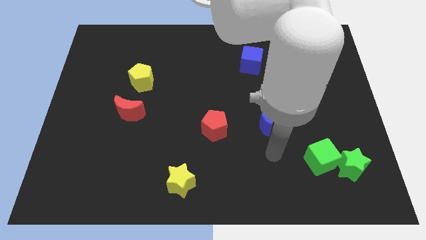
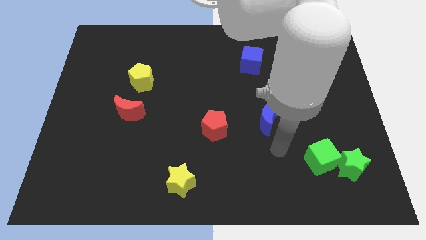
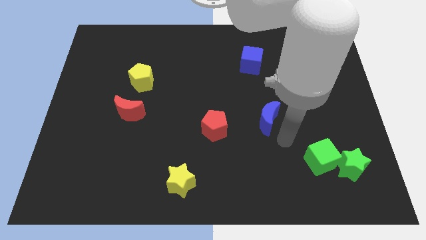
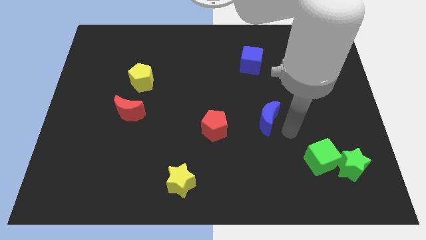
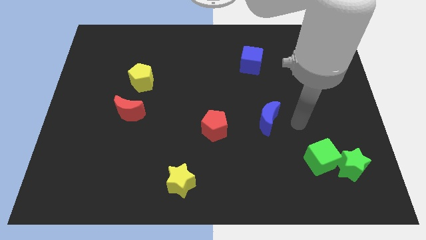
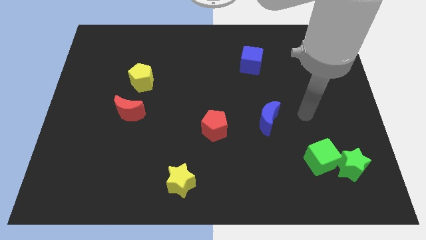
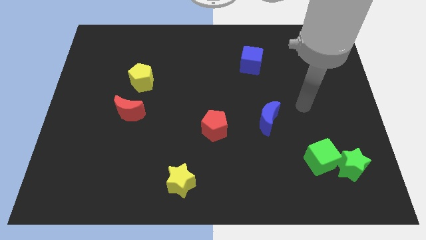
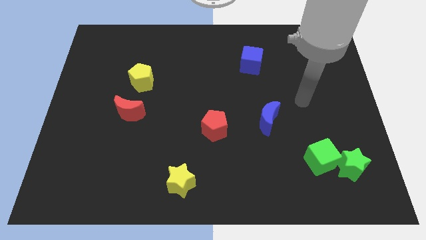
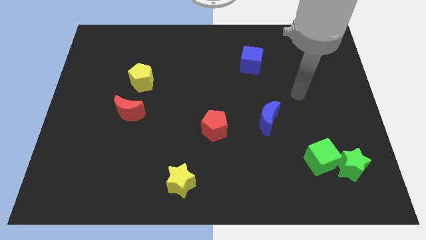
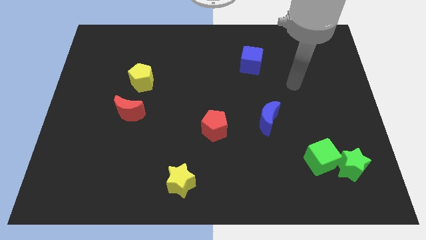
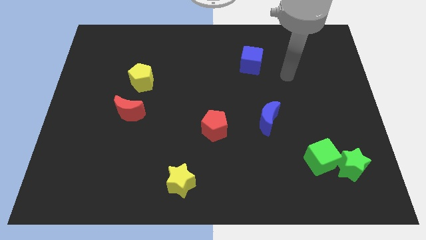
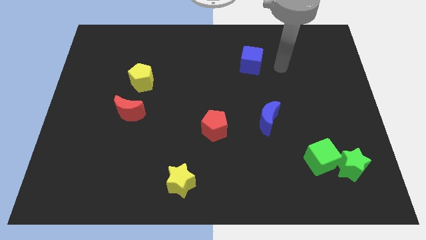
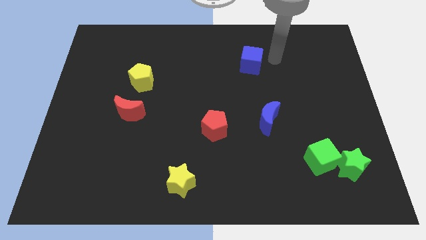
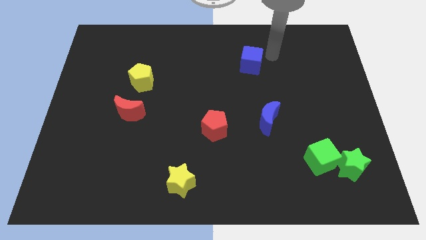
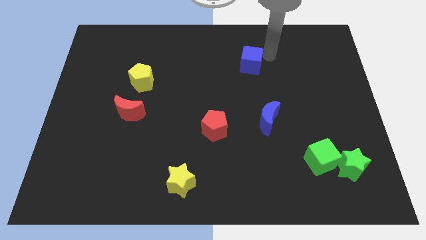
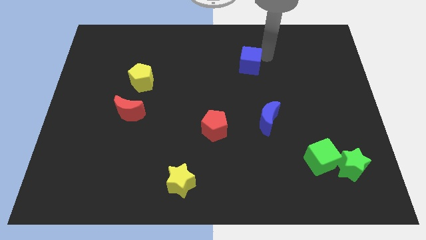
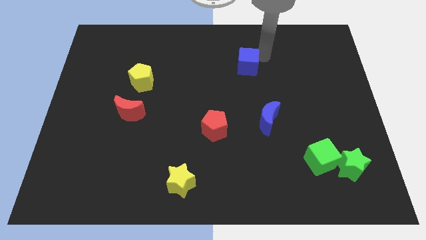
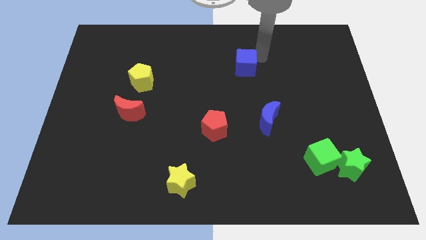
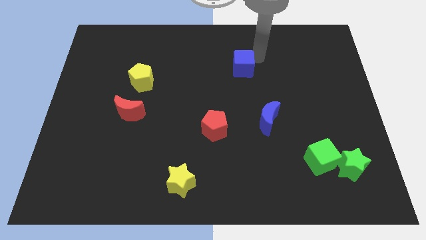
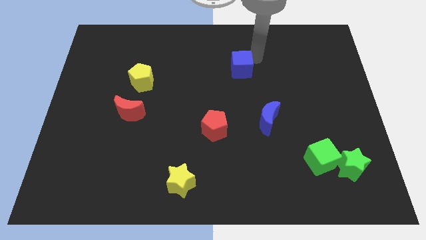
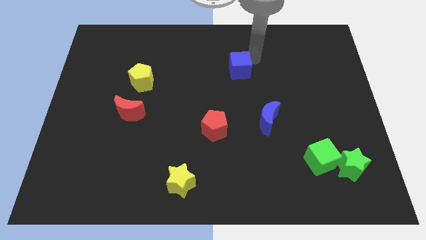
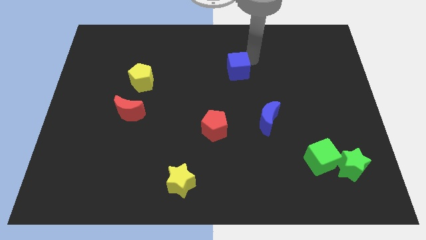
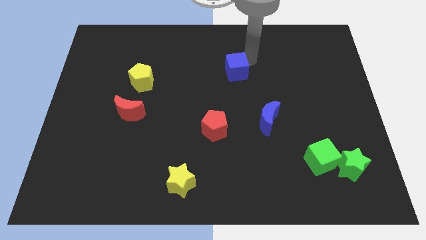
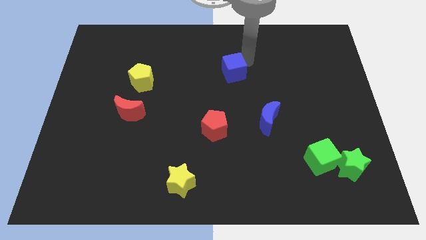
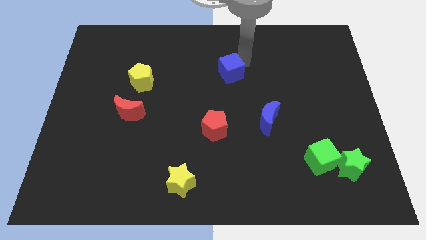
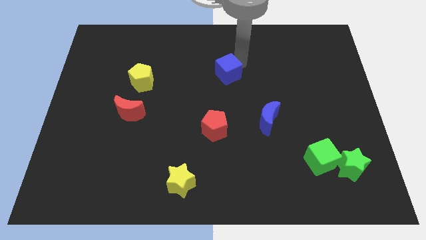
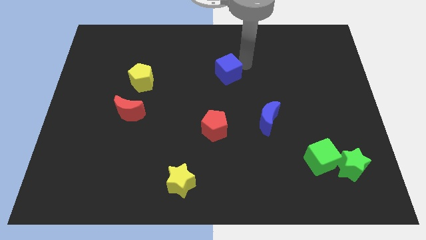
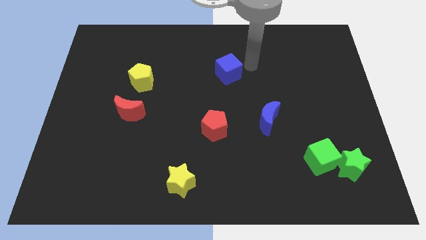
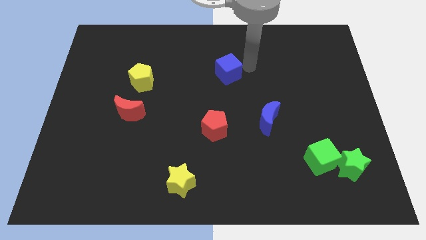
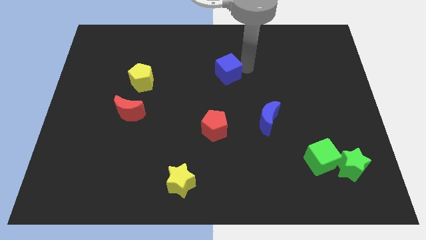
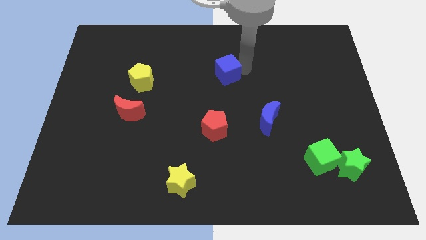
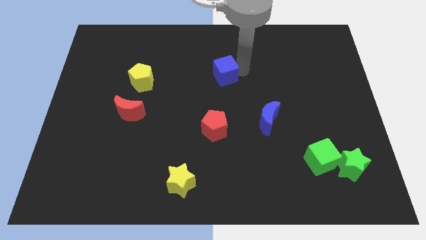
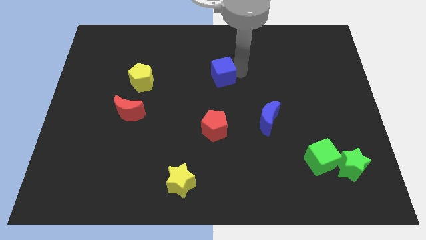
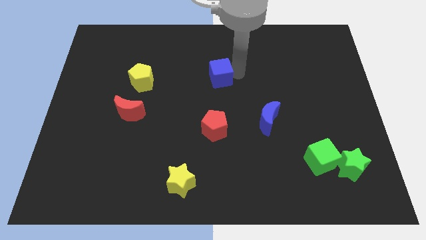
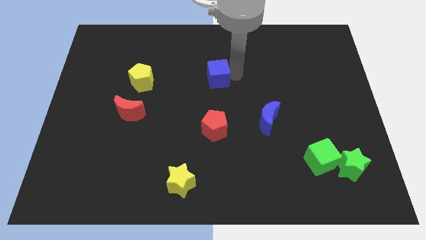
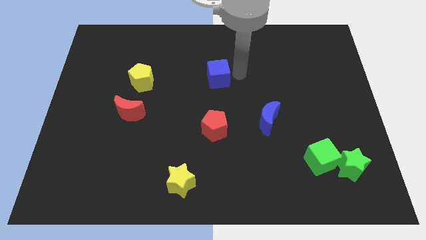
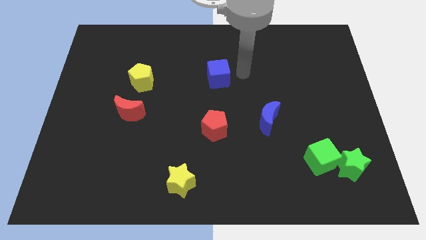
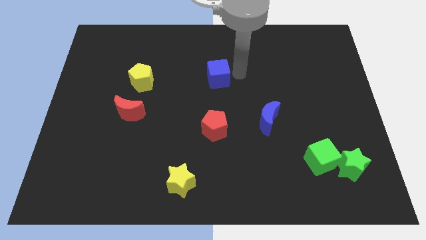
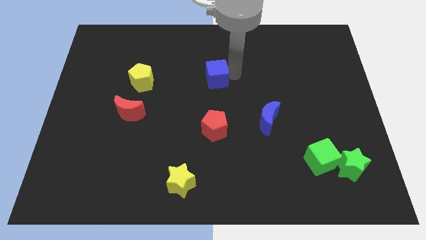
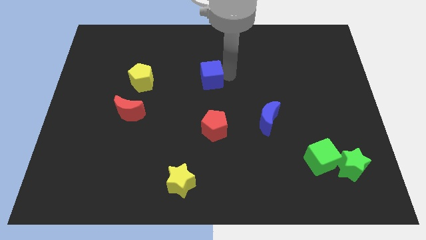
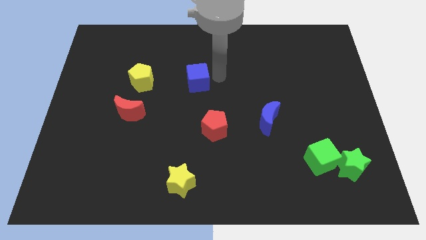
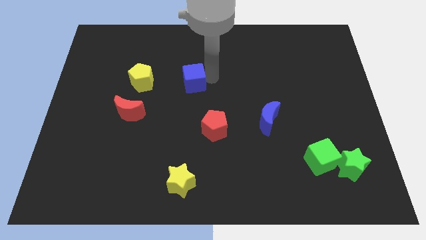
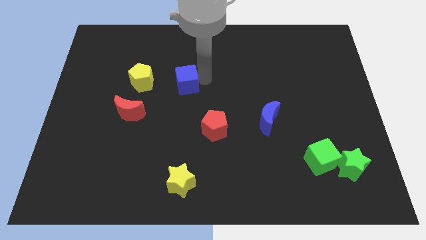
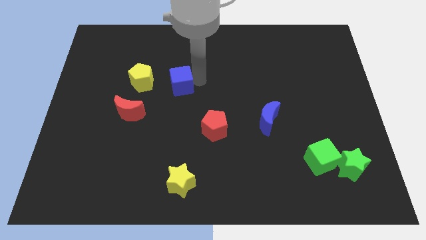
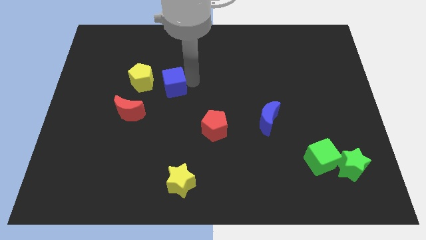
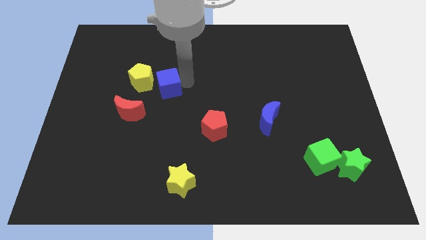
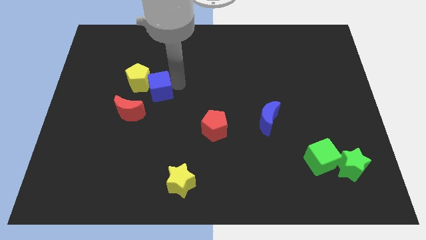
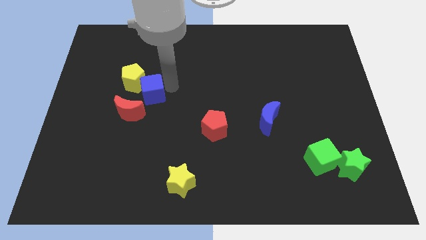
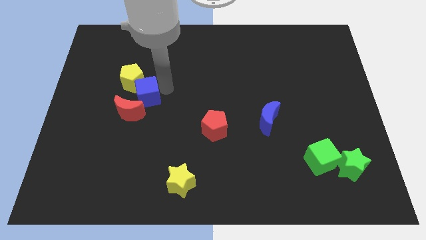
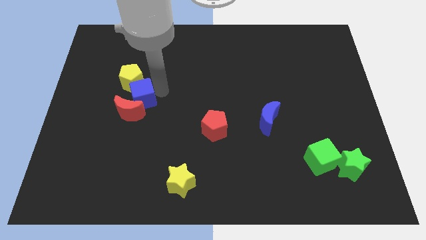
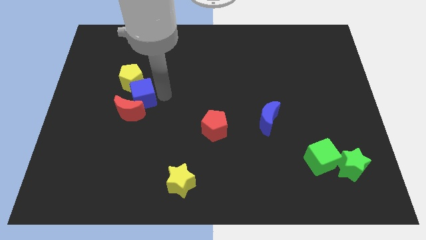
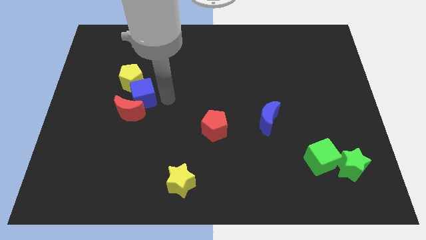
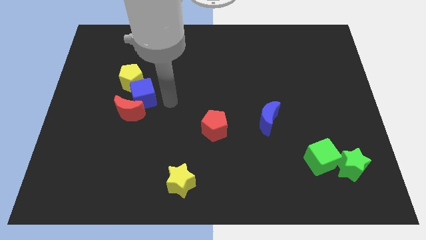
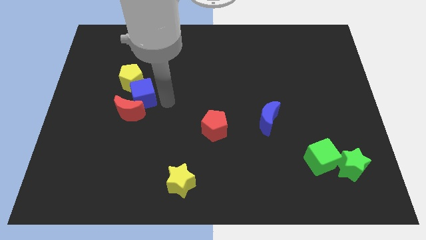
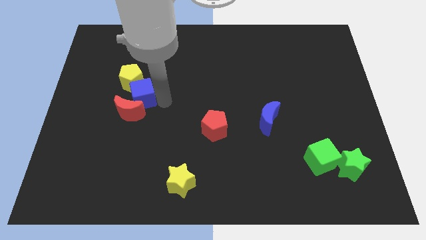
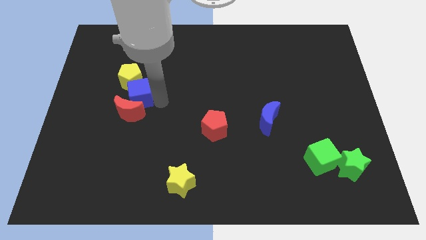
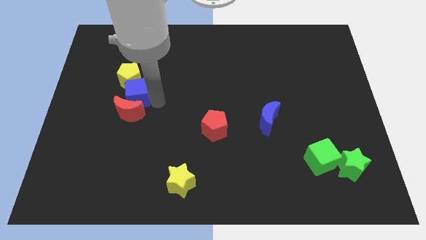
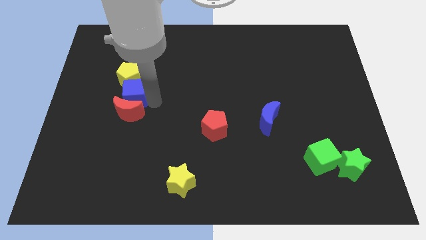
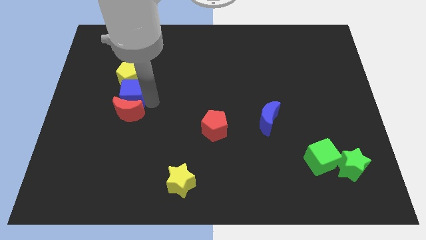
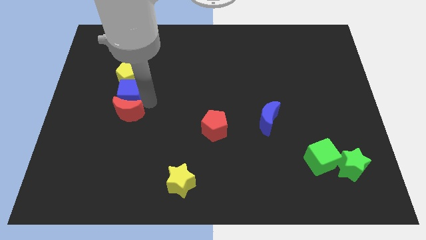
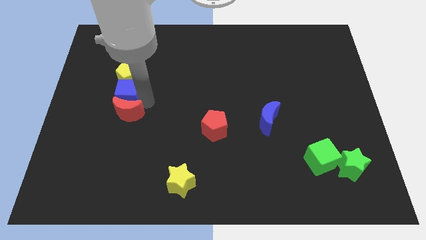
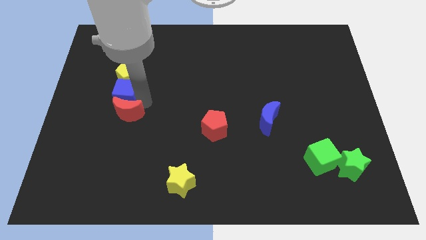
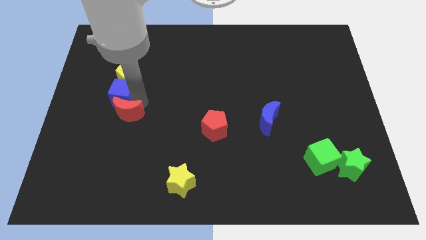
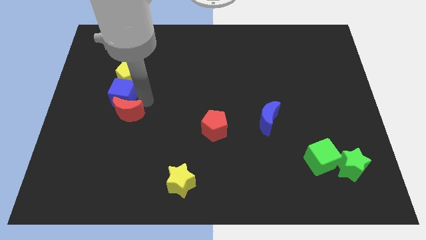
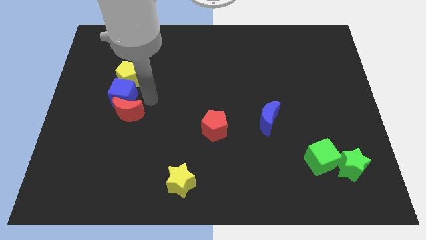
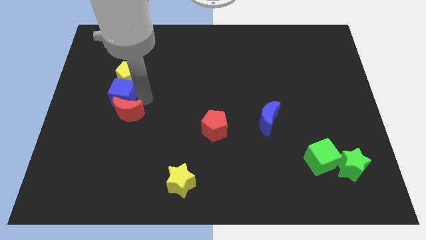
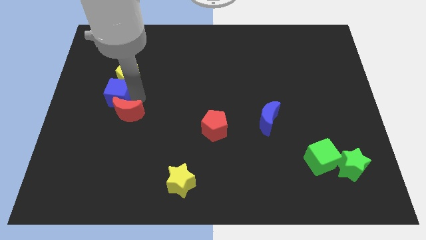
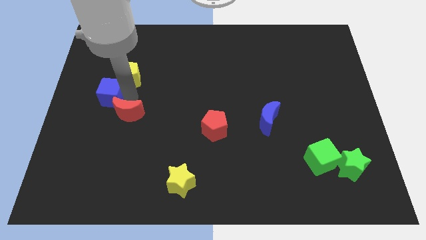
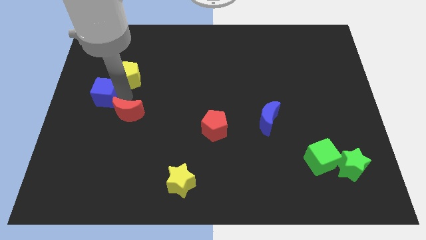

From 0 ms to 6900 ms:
slide the blue cube to the center left
